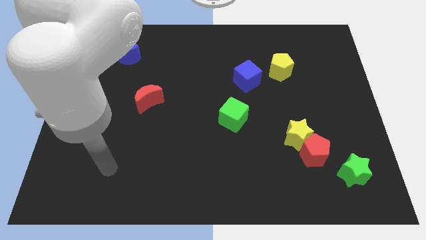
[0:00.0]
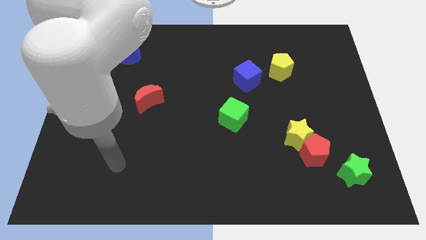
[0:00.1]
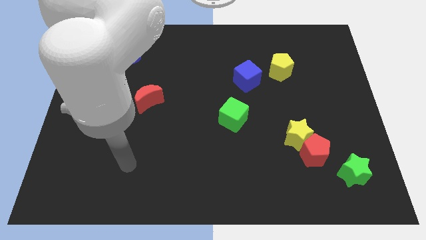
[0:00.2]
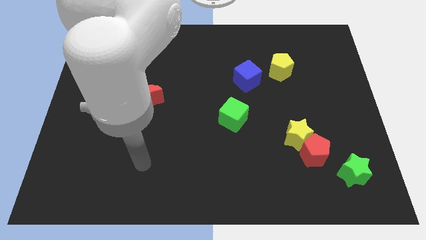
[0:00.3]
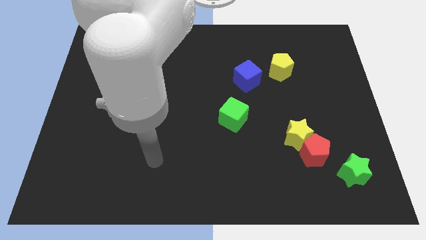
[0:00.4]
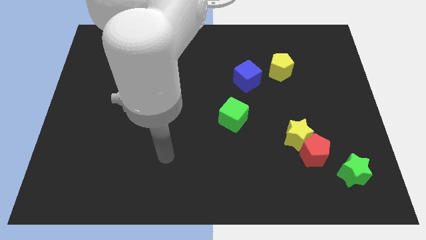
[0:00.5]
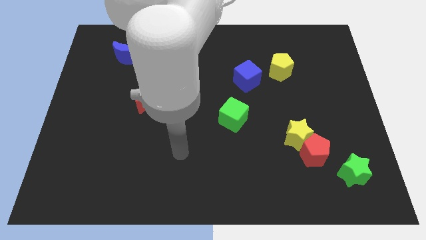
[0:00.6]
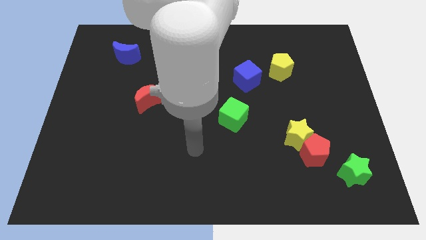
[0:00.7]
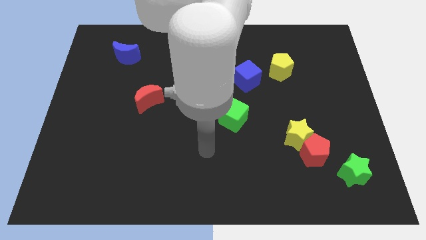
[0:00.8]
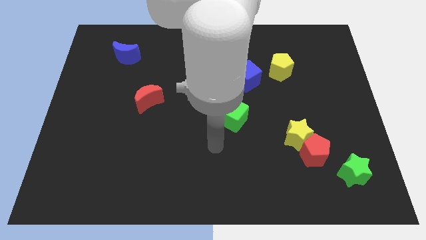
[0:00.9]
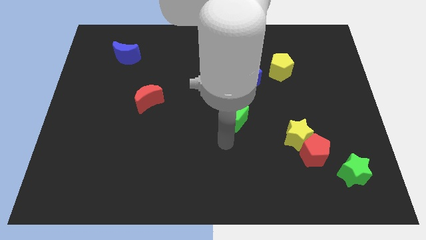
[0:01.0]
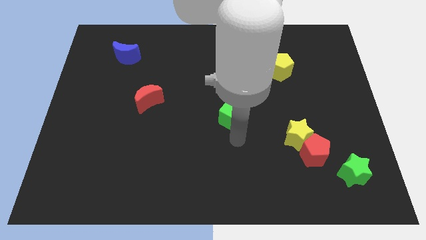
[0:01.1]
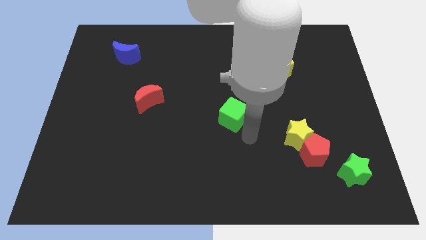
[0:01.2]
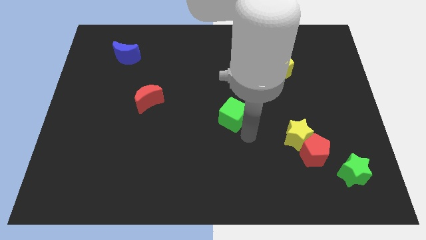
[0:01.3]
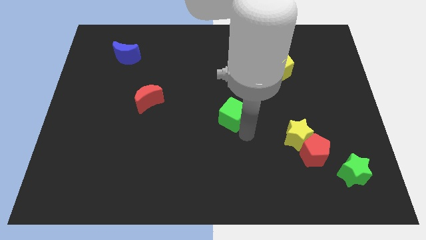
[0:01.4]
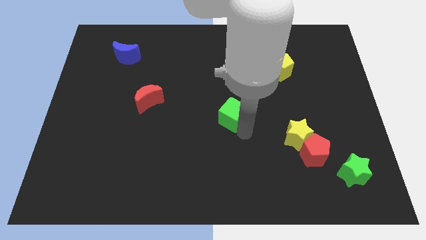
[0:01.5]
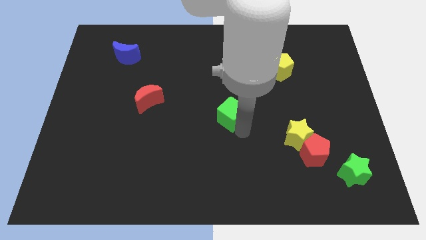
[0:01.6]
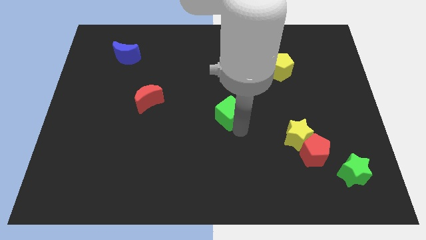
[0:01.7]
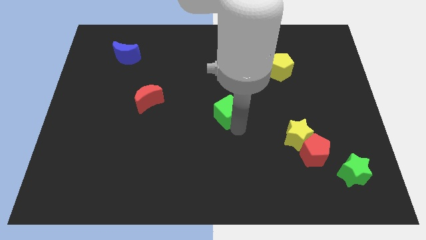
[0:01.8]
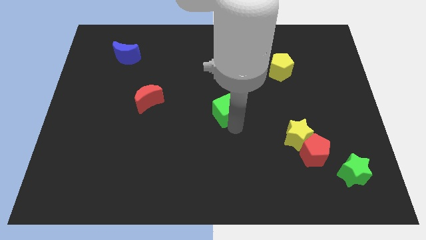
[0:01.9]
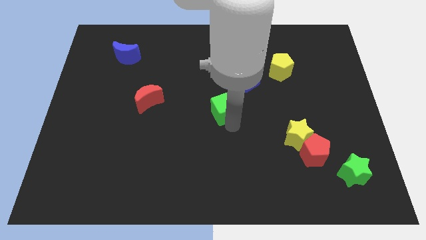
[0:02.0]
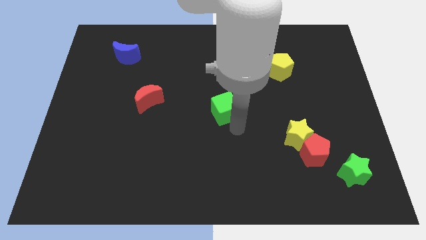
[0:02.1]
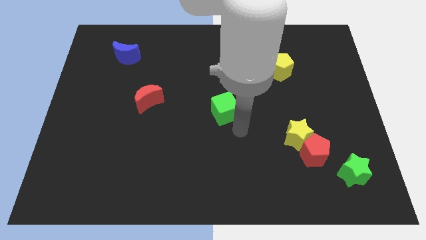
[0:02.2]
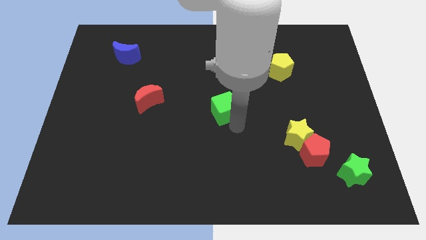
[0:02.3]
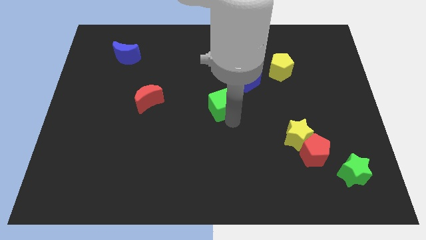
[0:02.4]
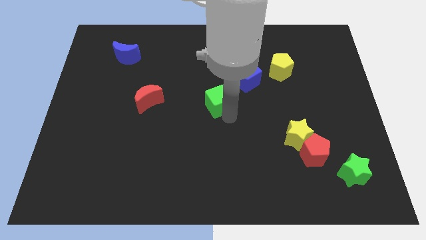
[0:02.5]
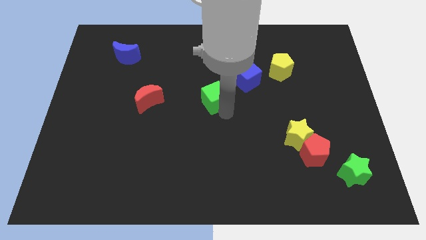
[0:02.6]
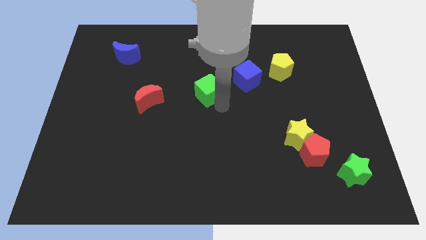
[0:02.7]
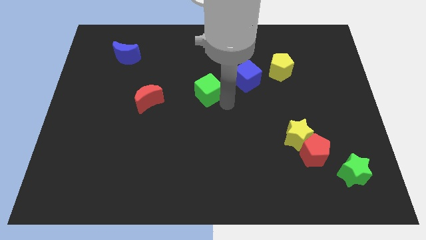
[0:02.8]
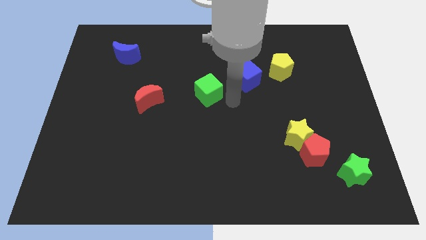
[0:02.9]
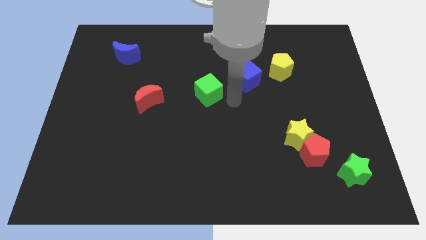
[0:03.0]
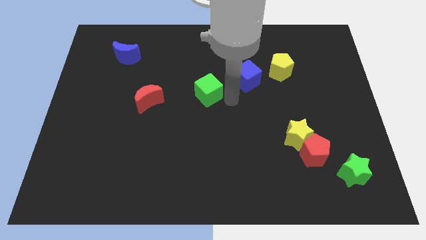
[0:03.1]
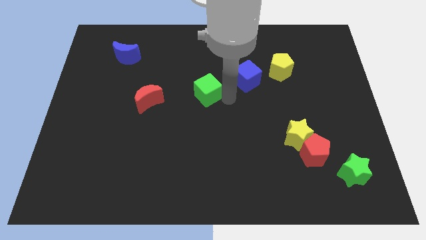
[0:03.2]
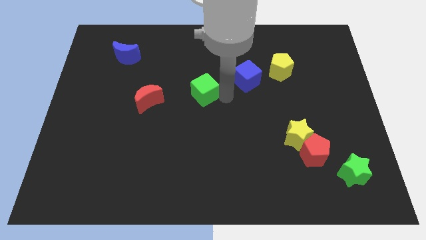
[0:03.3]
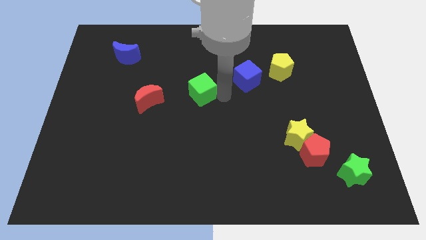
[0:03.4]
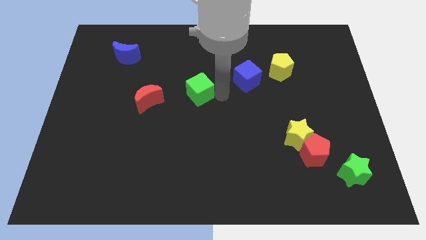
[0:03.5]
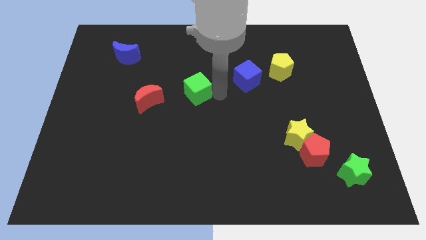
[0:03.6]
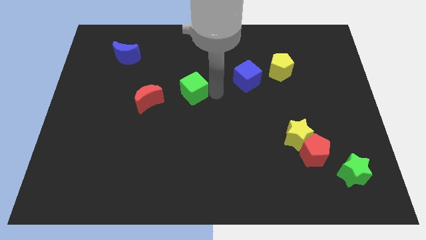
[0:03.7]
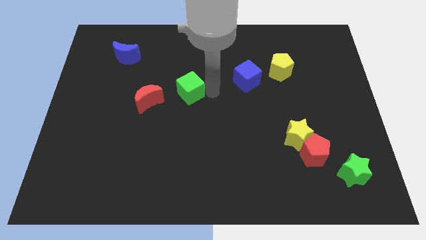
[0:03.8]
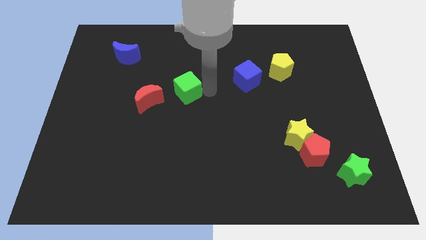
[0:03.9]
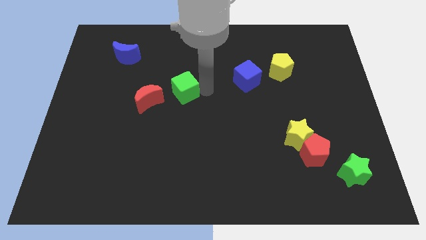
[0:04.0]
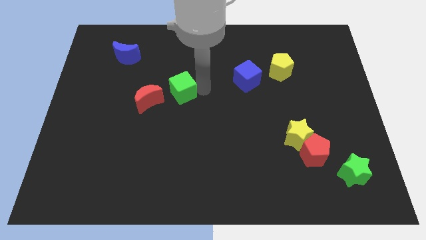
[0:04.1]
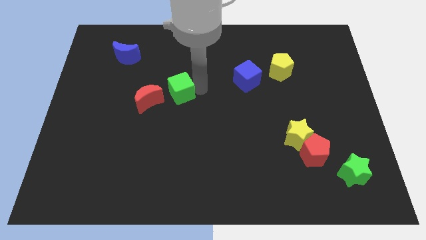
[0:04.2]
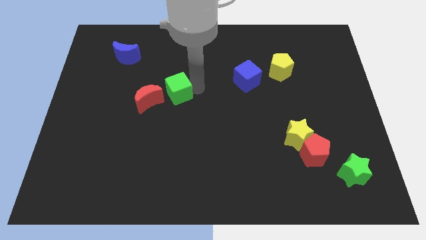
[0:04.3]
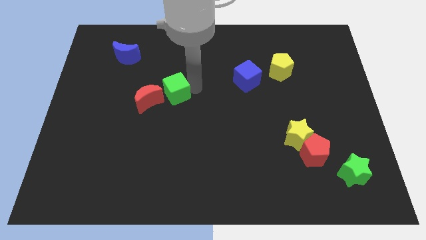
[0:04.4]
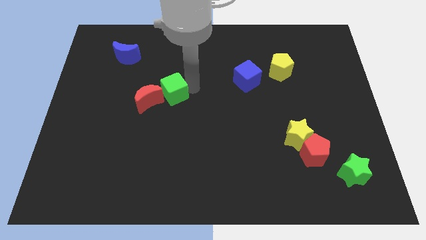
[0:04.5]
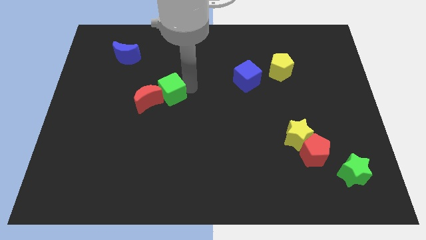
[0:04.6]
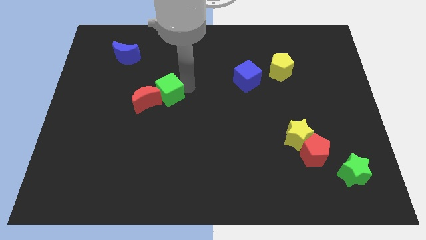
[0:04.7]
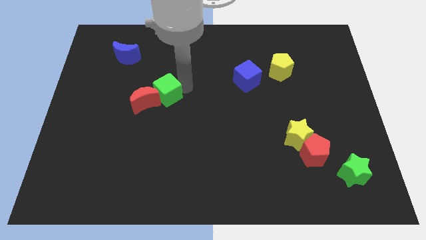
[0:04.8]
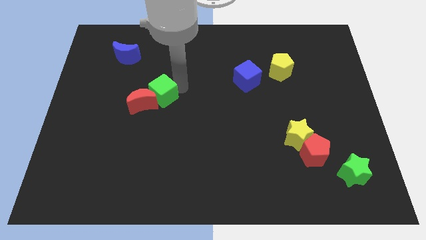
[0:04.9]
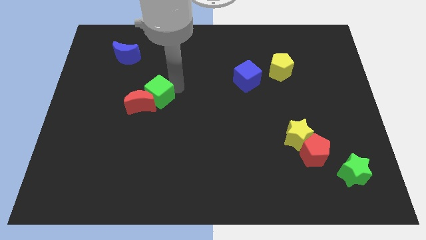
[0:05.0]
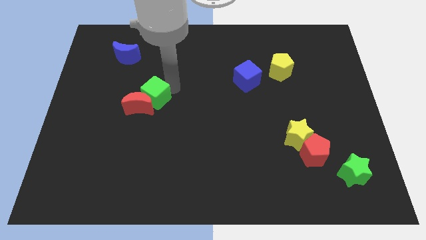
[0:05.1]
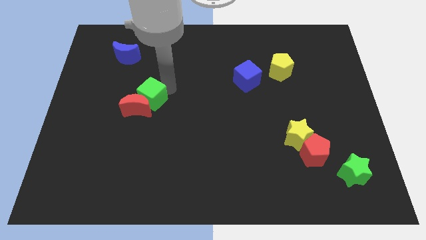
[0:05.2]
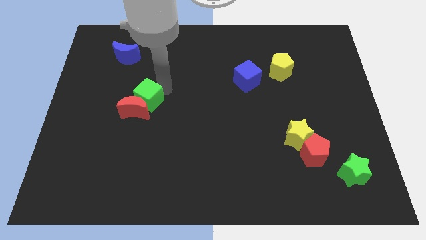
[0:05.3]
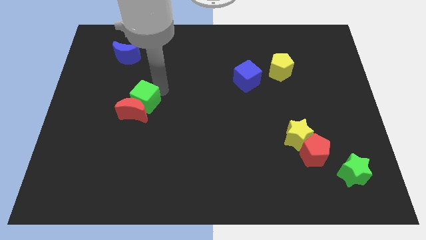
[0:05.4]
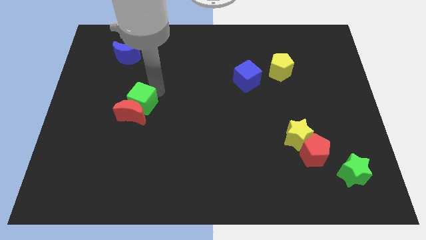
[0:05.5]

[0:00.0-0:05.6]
slide the green cube to the top left side of the red moon

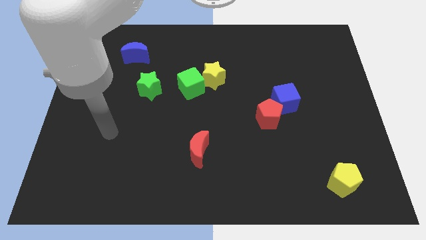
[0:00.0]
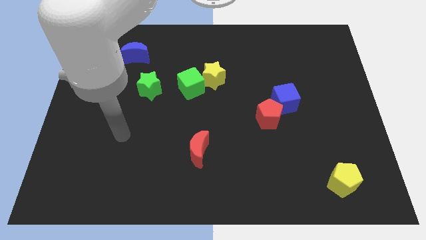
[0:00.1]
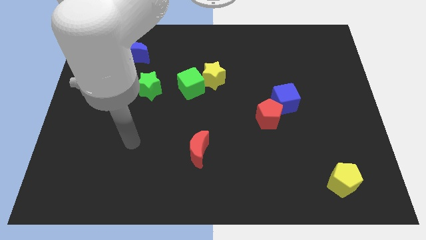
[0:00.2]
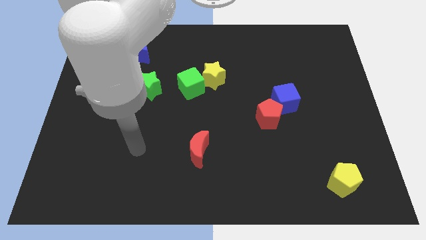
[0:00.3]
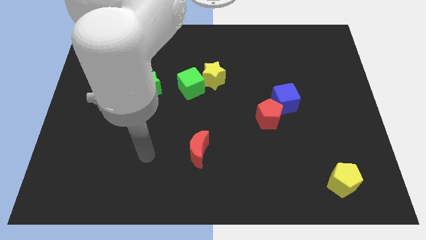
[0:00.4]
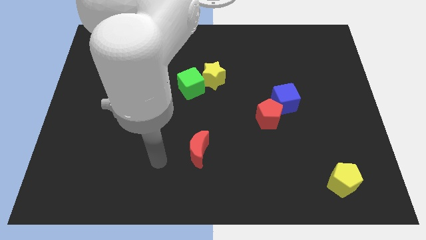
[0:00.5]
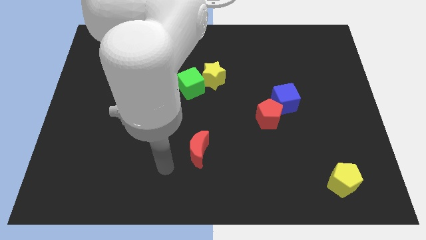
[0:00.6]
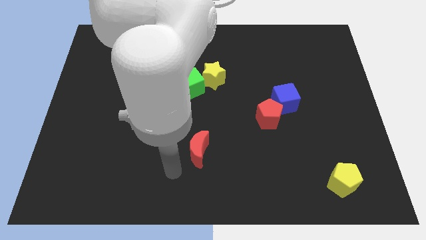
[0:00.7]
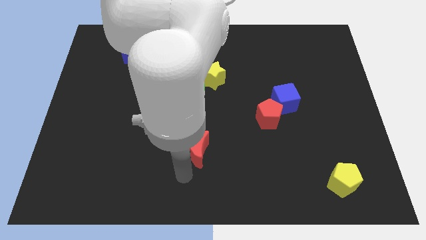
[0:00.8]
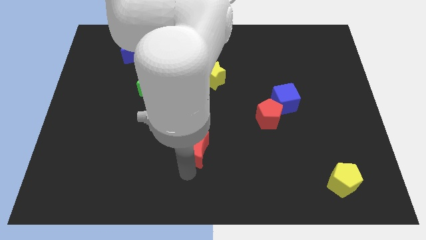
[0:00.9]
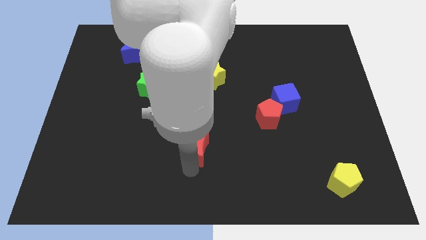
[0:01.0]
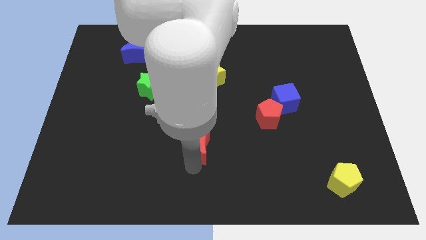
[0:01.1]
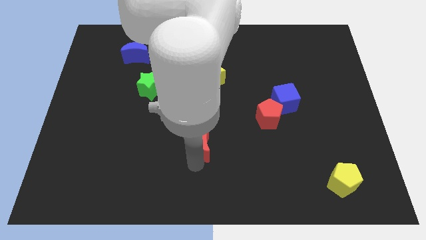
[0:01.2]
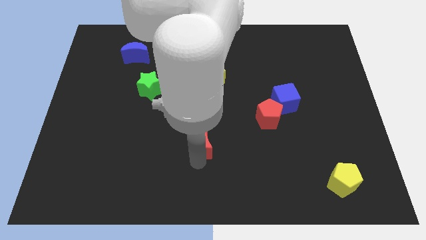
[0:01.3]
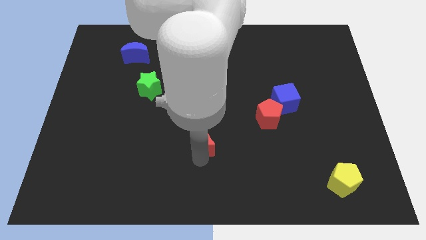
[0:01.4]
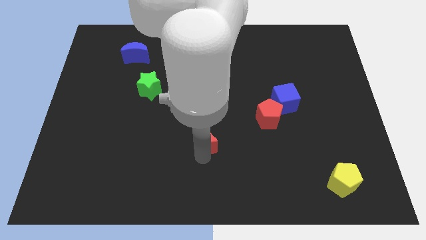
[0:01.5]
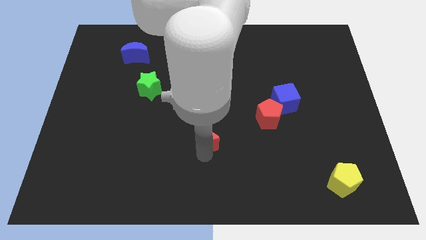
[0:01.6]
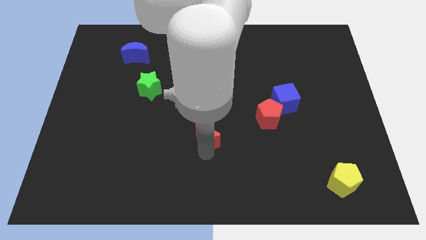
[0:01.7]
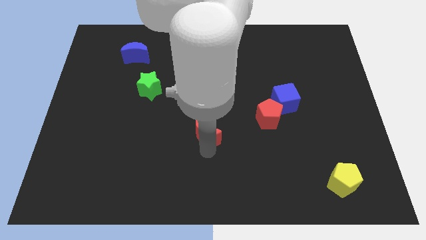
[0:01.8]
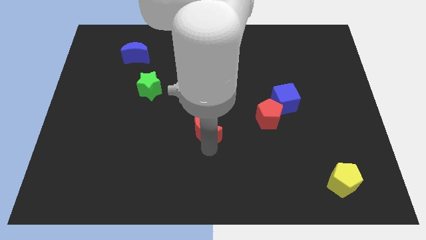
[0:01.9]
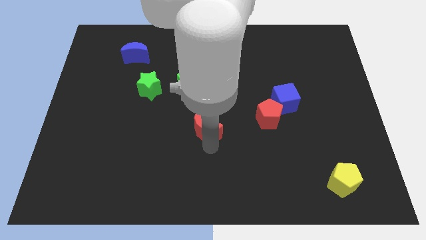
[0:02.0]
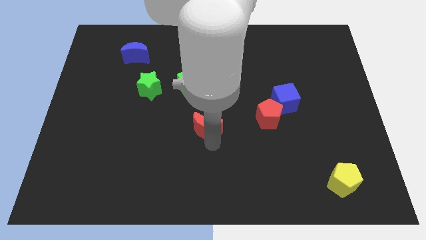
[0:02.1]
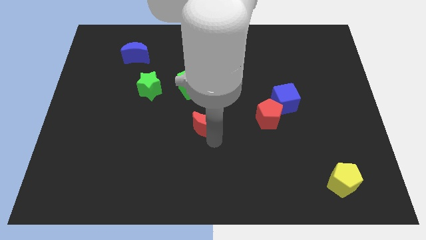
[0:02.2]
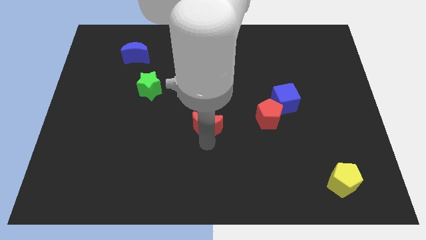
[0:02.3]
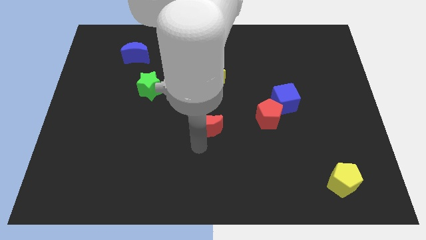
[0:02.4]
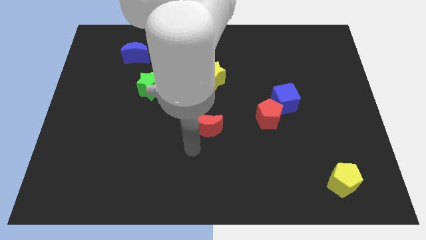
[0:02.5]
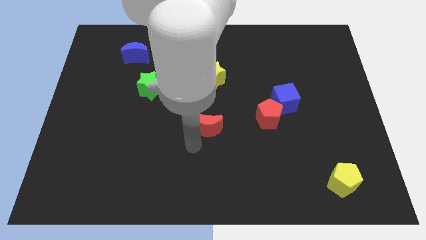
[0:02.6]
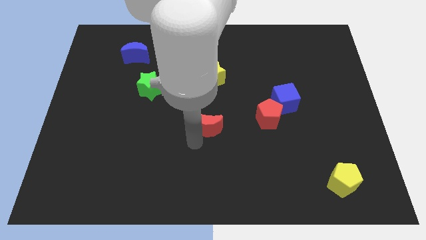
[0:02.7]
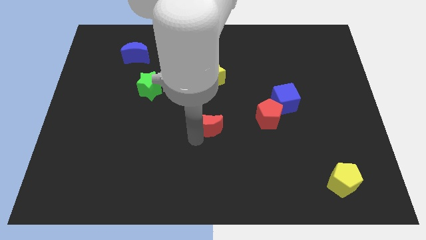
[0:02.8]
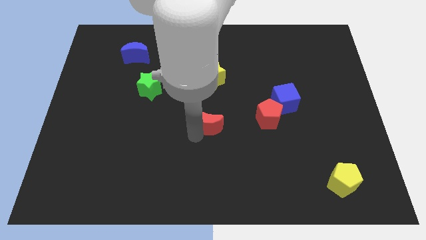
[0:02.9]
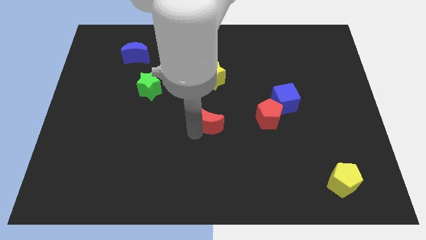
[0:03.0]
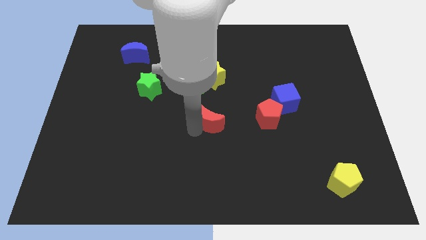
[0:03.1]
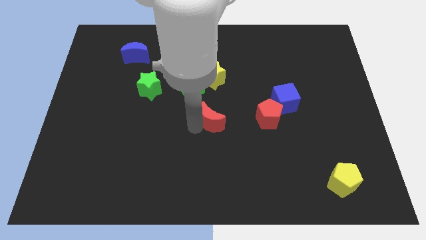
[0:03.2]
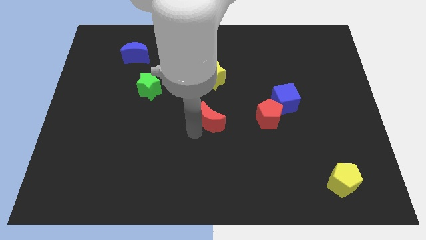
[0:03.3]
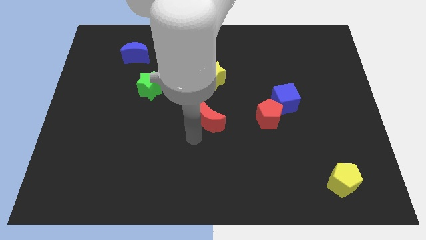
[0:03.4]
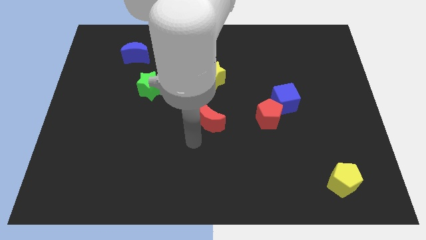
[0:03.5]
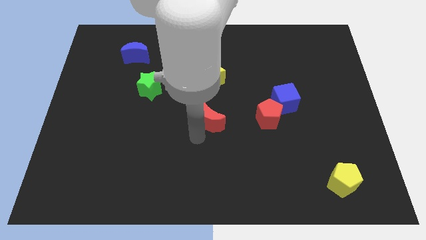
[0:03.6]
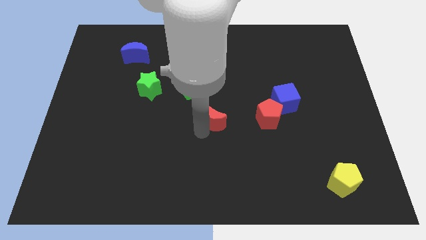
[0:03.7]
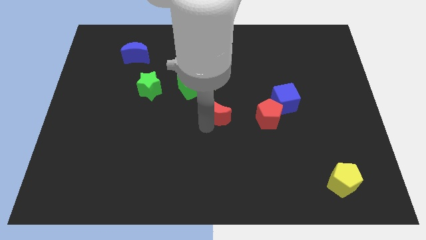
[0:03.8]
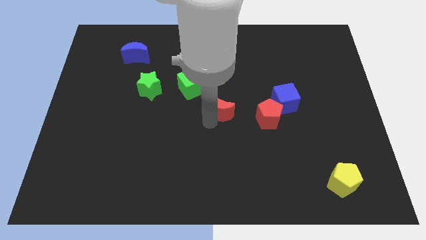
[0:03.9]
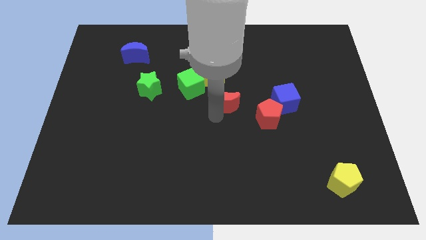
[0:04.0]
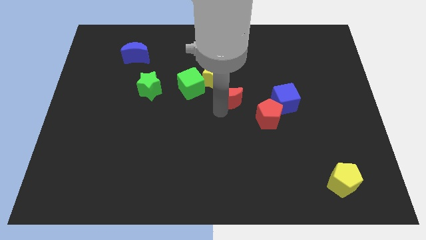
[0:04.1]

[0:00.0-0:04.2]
push the red moon right of the green cube
